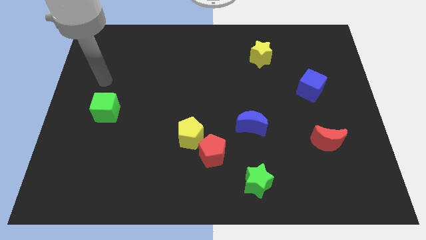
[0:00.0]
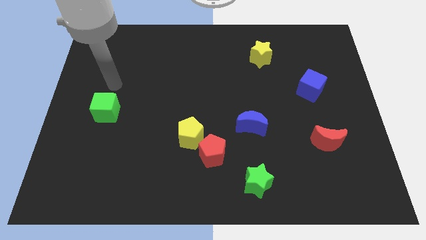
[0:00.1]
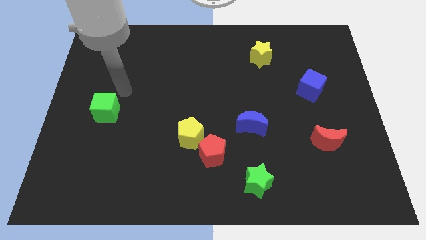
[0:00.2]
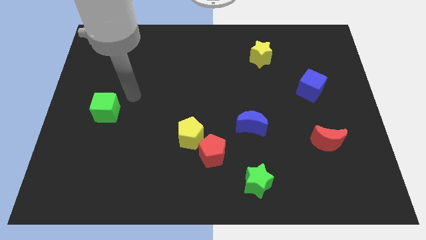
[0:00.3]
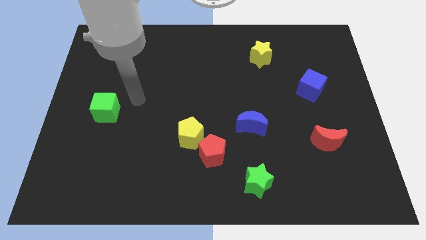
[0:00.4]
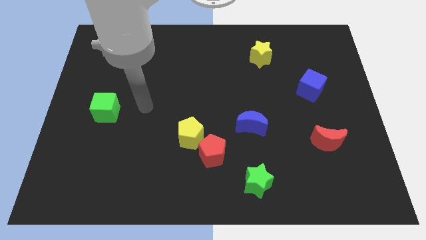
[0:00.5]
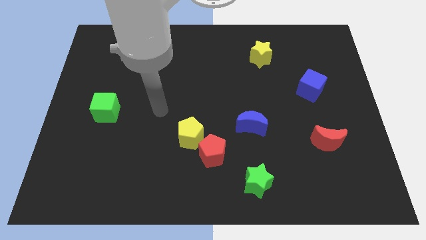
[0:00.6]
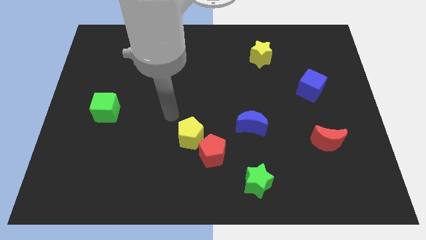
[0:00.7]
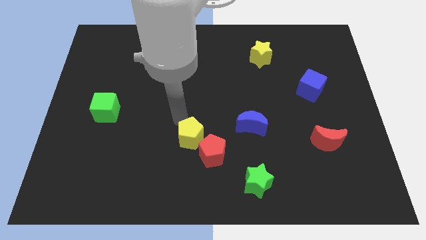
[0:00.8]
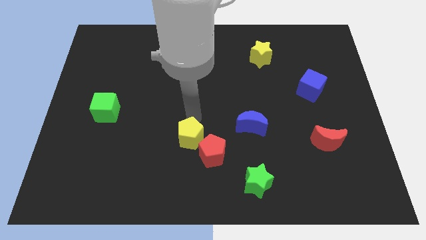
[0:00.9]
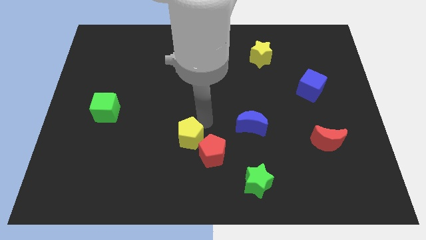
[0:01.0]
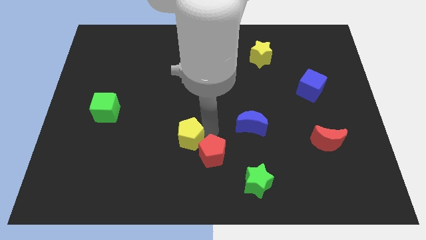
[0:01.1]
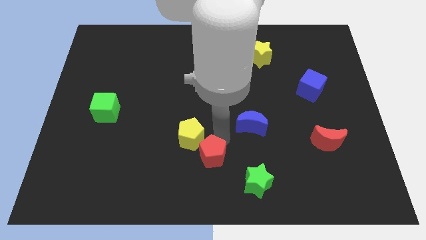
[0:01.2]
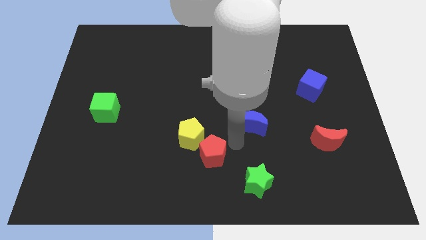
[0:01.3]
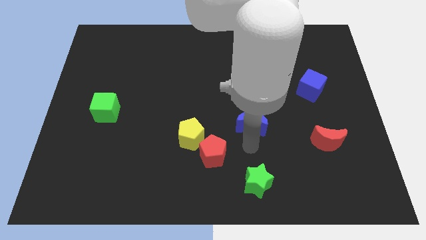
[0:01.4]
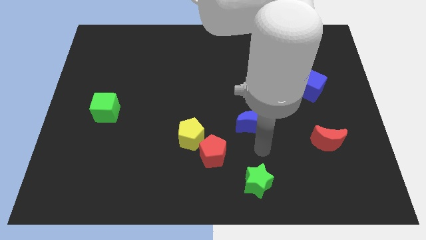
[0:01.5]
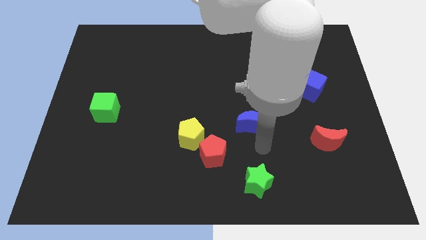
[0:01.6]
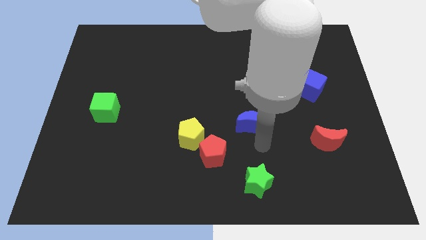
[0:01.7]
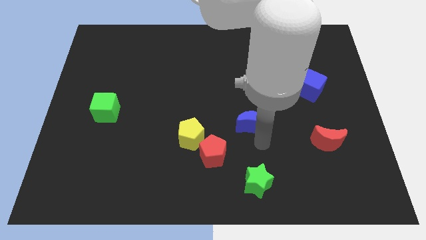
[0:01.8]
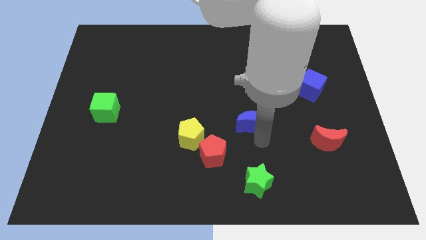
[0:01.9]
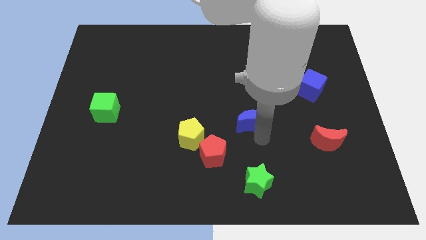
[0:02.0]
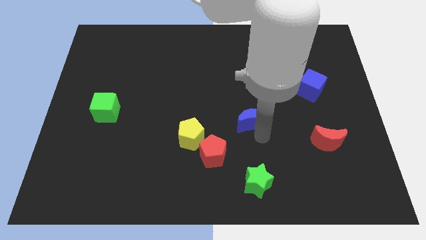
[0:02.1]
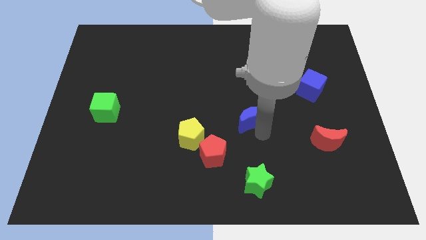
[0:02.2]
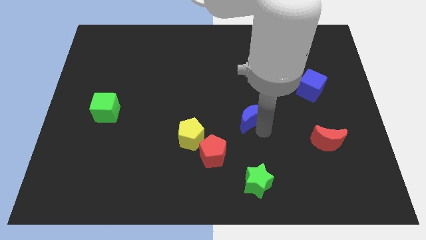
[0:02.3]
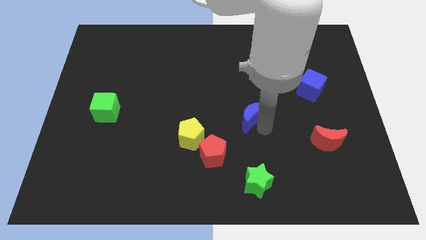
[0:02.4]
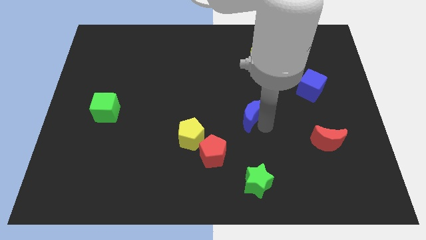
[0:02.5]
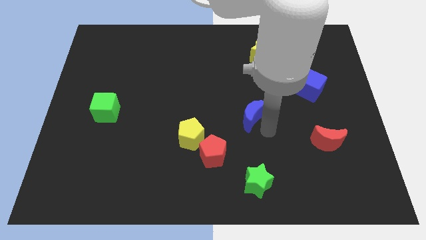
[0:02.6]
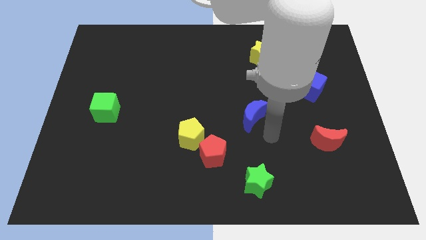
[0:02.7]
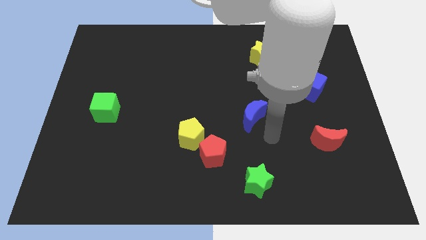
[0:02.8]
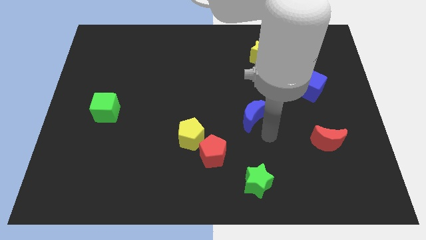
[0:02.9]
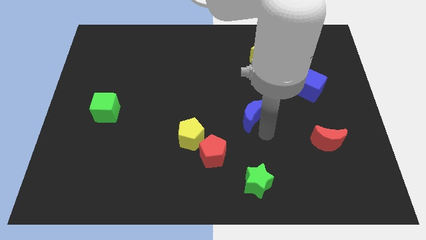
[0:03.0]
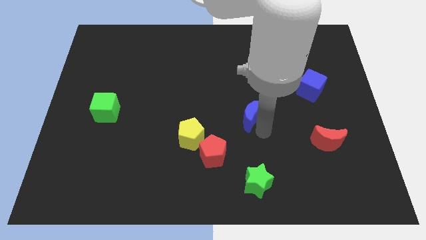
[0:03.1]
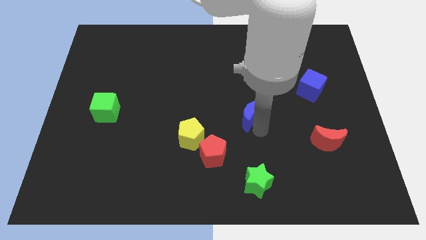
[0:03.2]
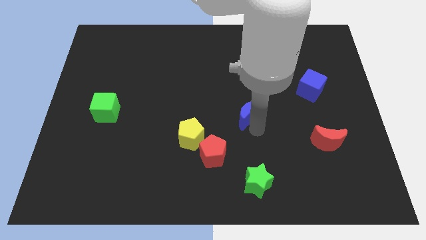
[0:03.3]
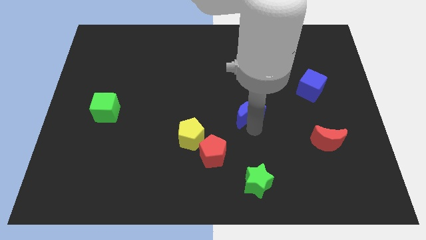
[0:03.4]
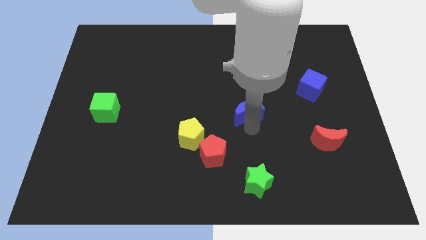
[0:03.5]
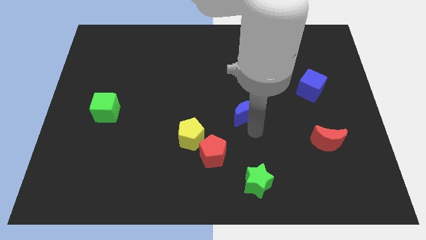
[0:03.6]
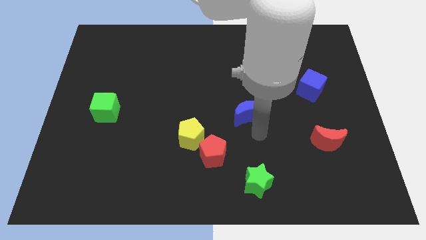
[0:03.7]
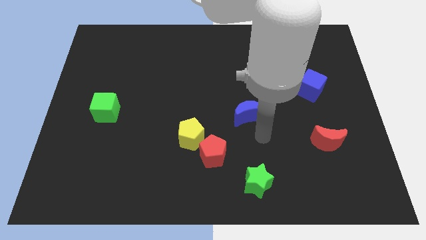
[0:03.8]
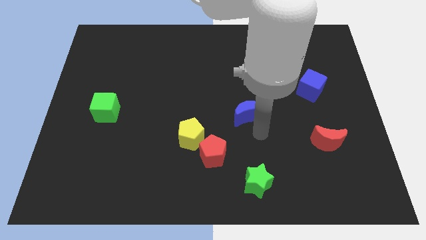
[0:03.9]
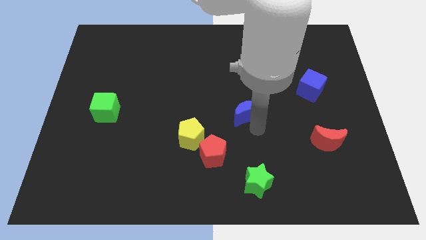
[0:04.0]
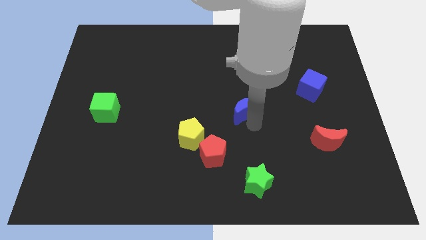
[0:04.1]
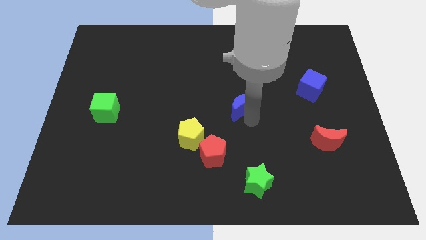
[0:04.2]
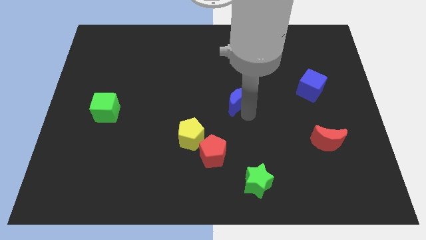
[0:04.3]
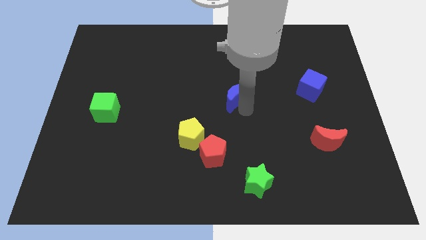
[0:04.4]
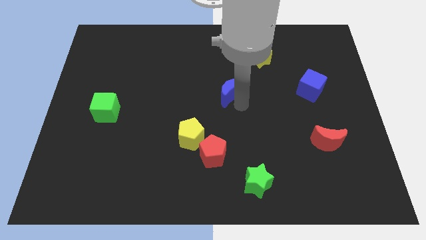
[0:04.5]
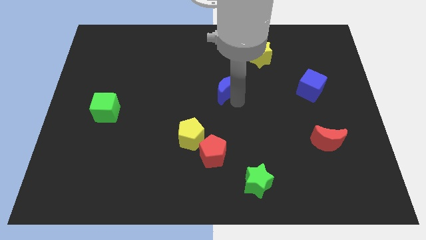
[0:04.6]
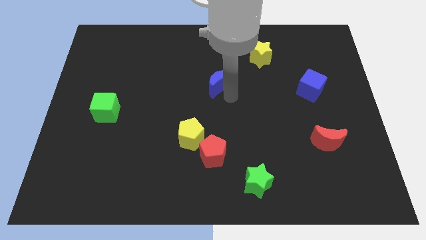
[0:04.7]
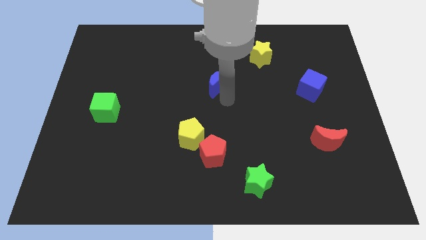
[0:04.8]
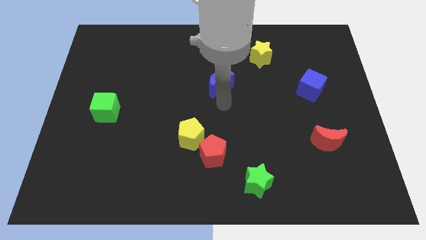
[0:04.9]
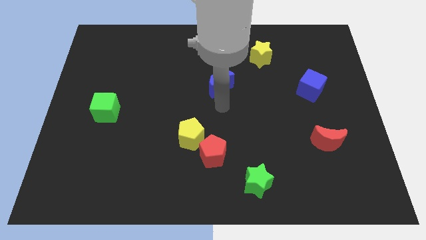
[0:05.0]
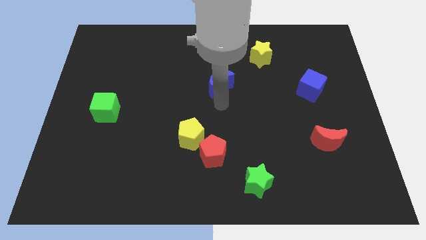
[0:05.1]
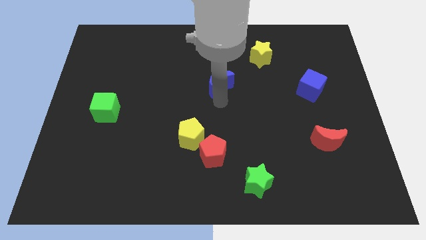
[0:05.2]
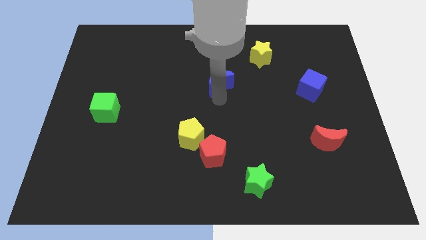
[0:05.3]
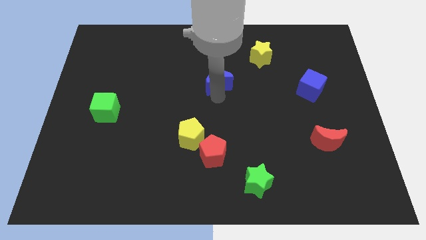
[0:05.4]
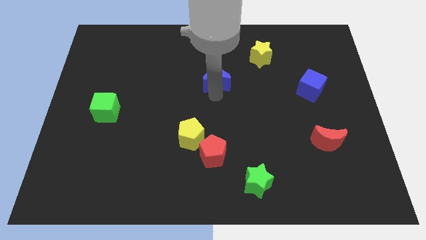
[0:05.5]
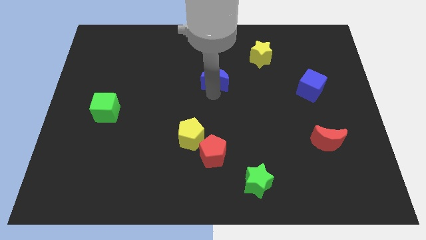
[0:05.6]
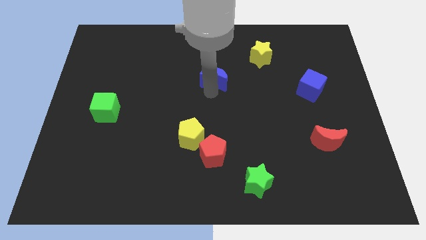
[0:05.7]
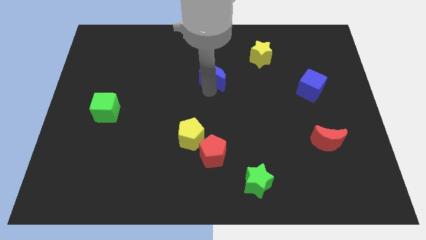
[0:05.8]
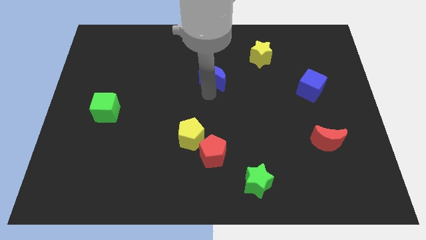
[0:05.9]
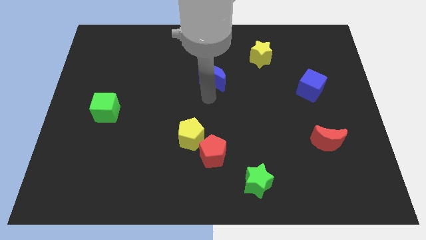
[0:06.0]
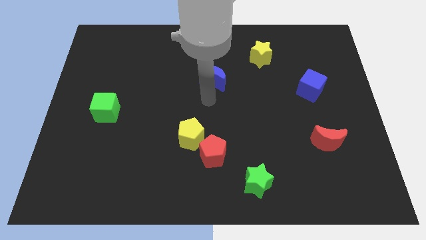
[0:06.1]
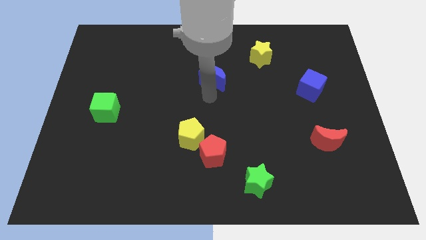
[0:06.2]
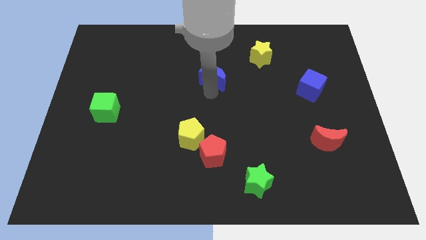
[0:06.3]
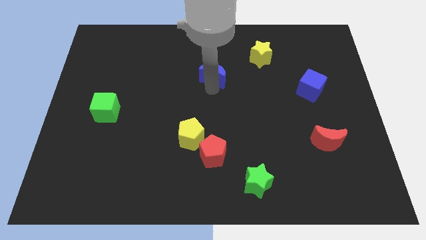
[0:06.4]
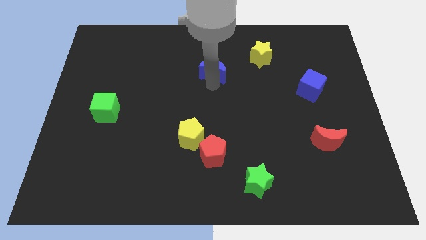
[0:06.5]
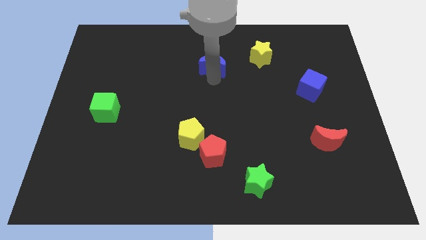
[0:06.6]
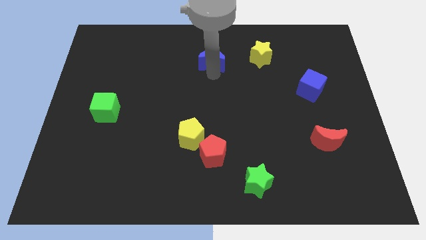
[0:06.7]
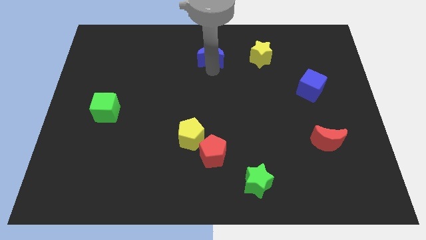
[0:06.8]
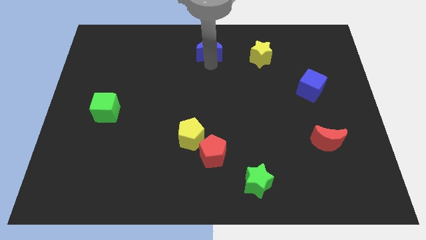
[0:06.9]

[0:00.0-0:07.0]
move the blue moon to the top side

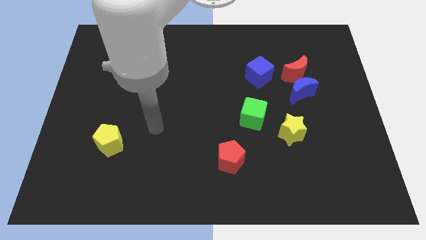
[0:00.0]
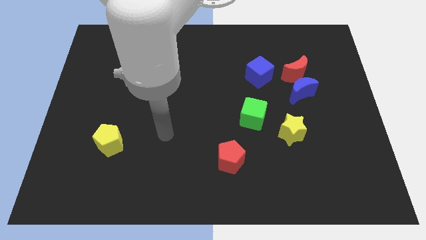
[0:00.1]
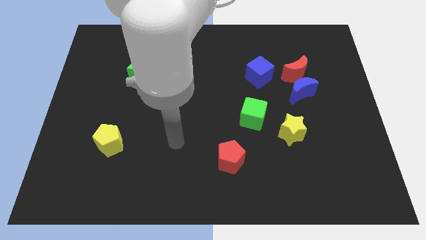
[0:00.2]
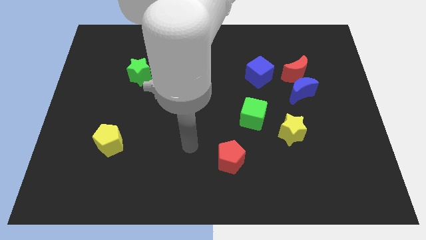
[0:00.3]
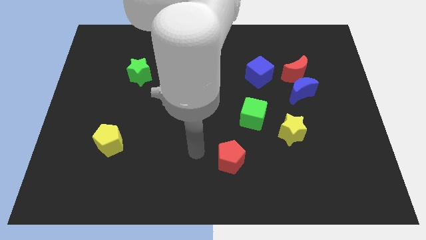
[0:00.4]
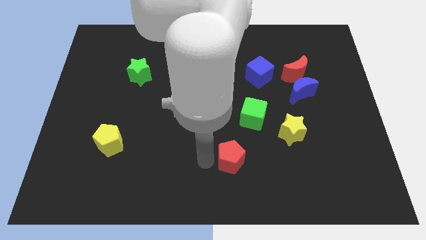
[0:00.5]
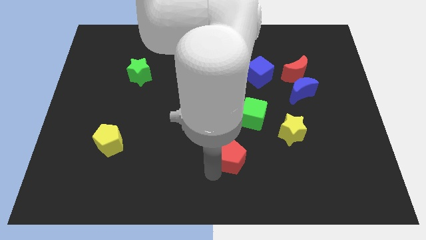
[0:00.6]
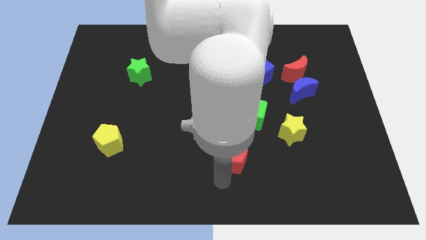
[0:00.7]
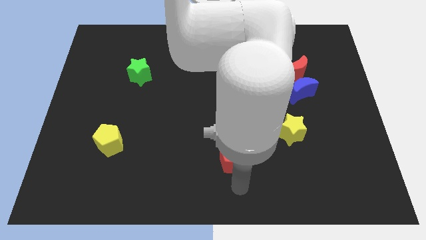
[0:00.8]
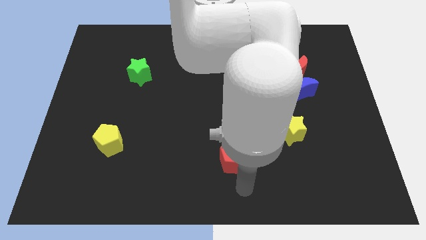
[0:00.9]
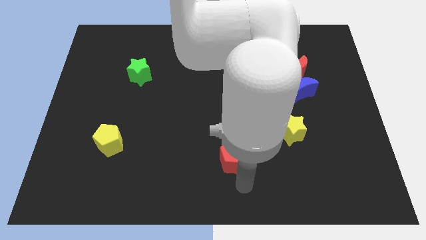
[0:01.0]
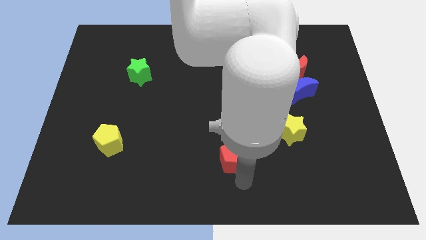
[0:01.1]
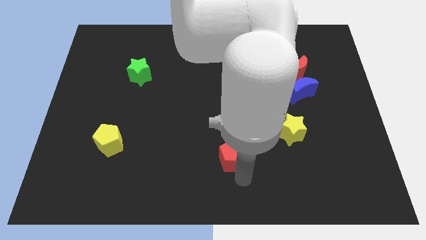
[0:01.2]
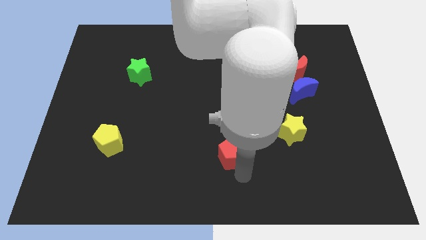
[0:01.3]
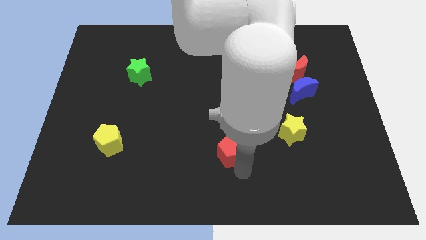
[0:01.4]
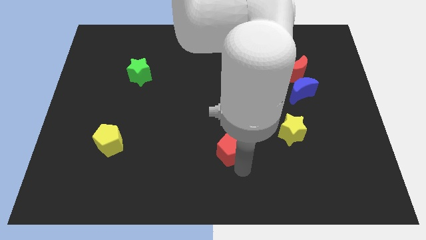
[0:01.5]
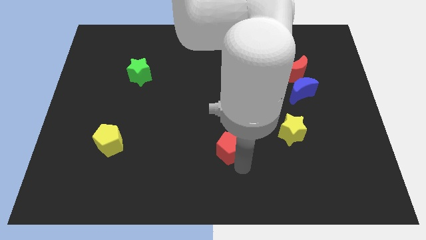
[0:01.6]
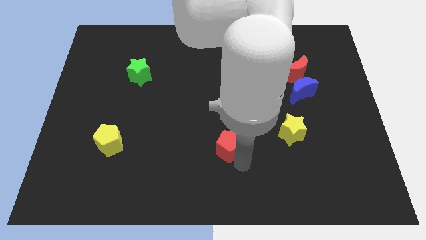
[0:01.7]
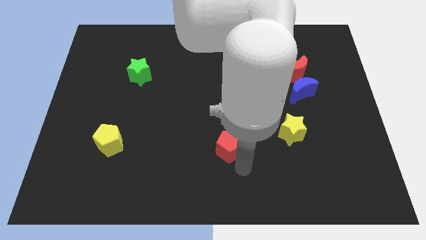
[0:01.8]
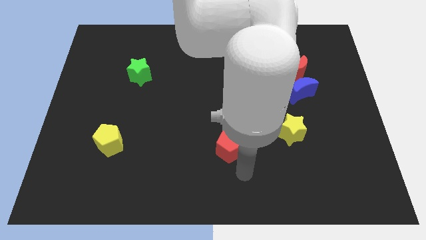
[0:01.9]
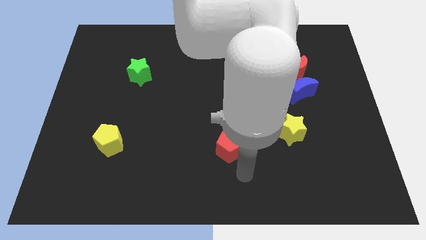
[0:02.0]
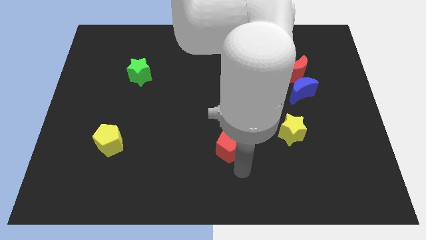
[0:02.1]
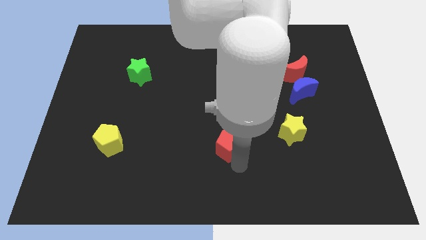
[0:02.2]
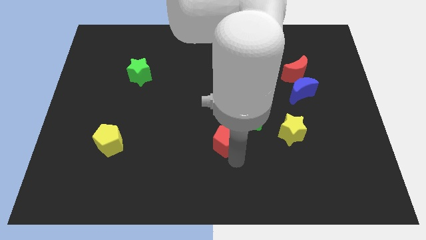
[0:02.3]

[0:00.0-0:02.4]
put the red pentagon to the middle
